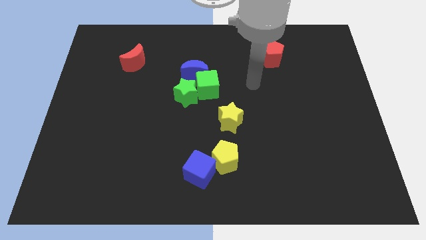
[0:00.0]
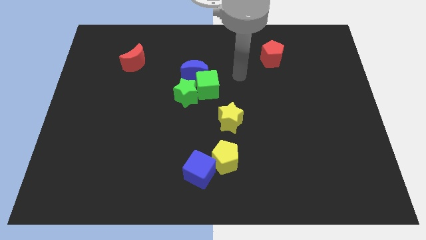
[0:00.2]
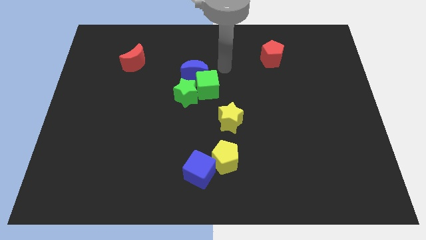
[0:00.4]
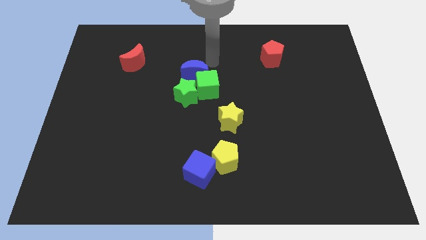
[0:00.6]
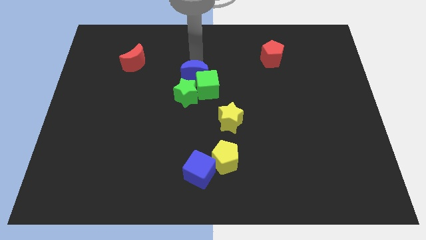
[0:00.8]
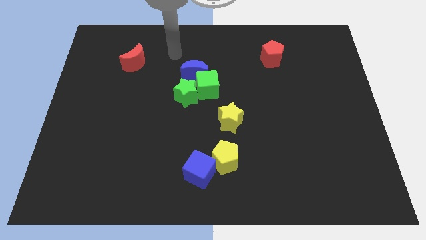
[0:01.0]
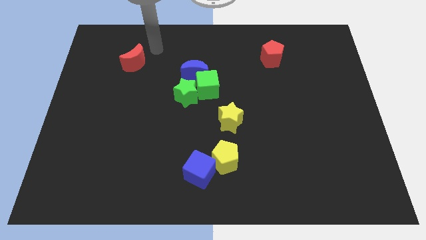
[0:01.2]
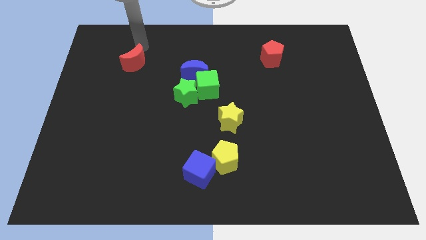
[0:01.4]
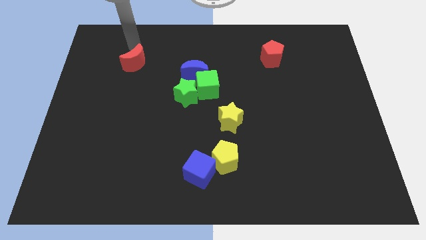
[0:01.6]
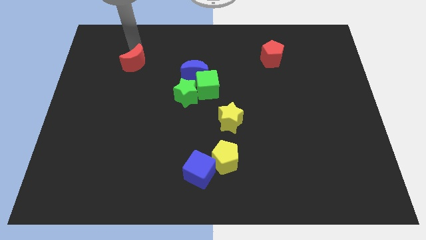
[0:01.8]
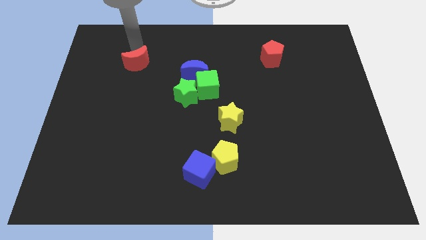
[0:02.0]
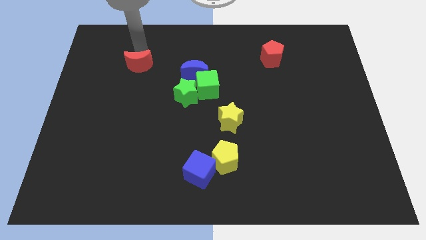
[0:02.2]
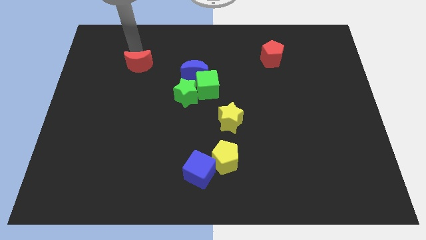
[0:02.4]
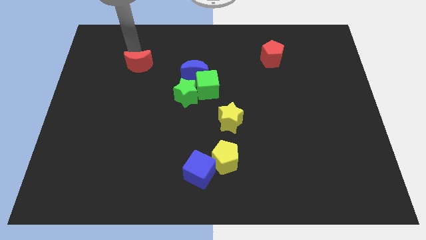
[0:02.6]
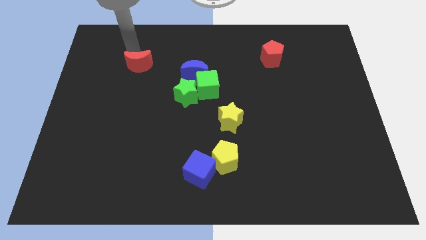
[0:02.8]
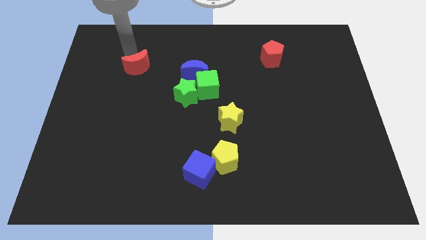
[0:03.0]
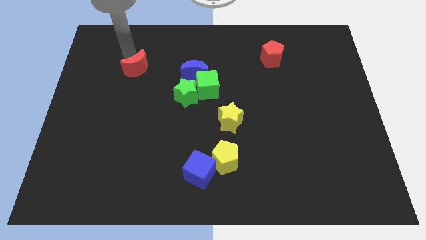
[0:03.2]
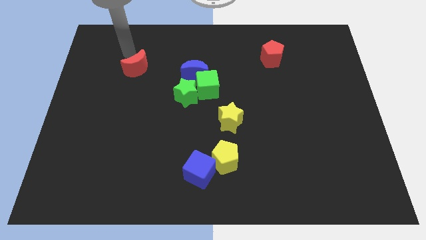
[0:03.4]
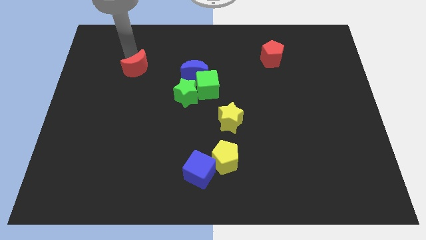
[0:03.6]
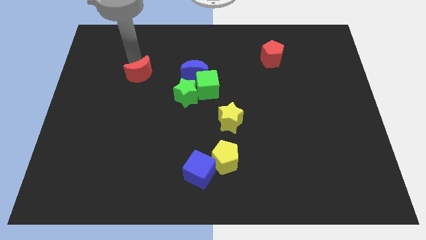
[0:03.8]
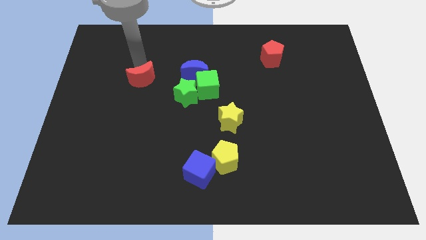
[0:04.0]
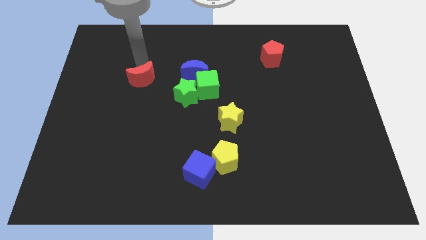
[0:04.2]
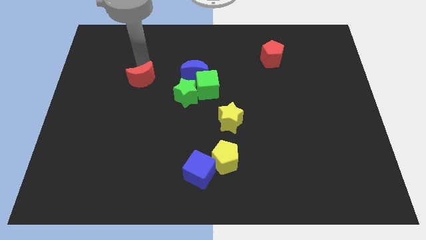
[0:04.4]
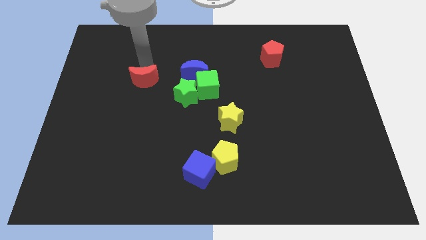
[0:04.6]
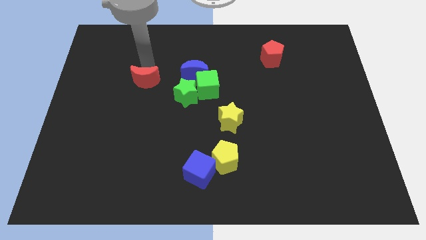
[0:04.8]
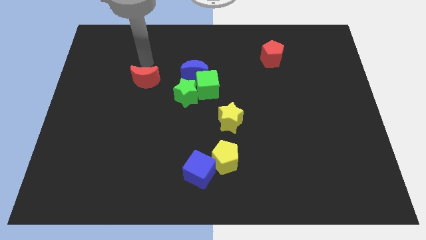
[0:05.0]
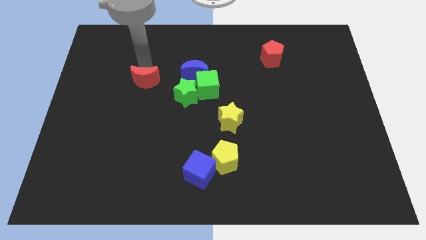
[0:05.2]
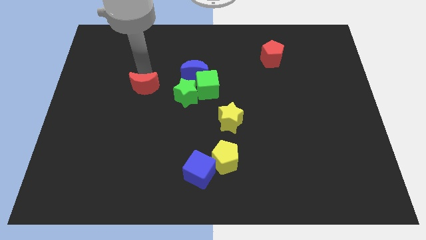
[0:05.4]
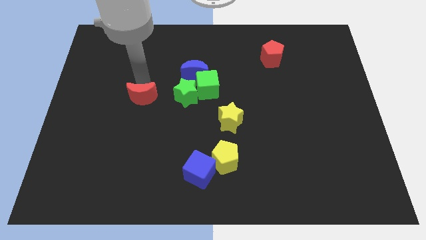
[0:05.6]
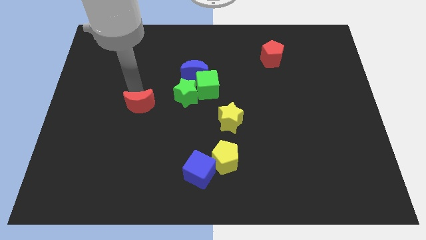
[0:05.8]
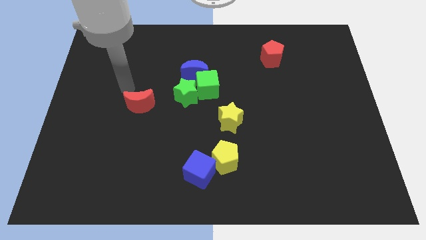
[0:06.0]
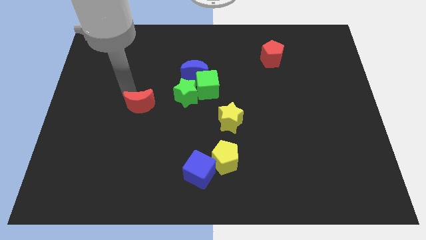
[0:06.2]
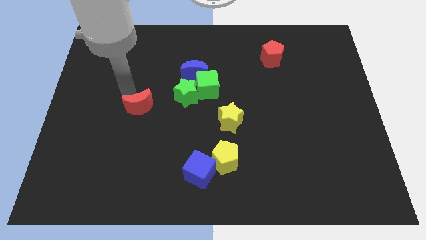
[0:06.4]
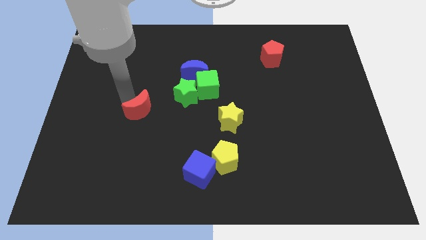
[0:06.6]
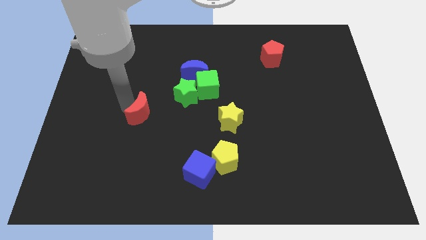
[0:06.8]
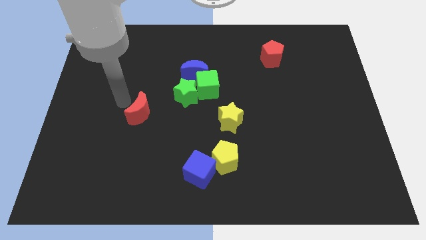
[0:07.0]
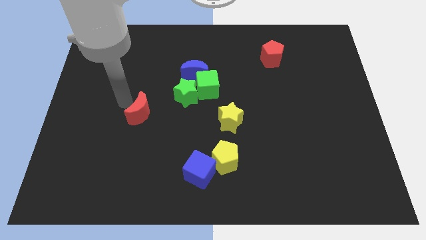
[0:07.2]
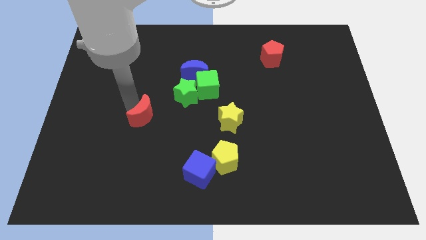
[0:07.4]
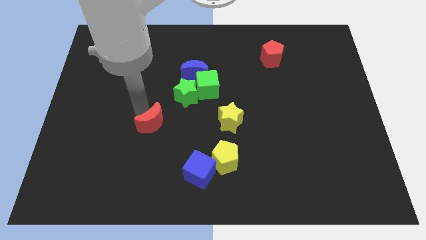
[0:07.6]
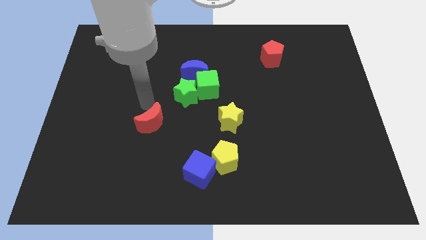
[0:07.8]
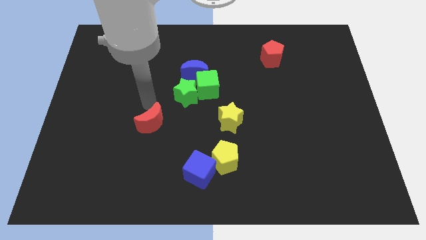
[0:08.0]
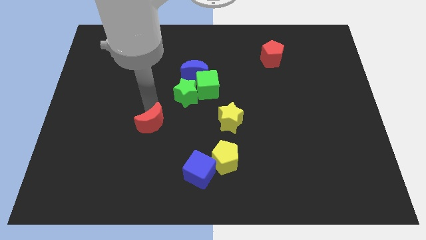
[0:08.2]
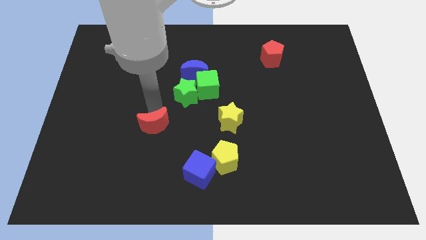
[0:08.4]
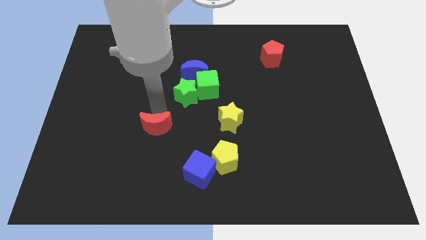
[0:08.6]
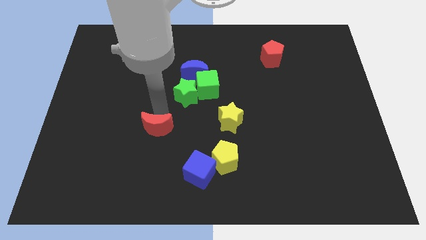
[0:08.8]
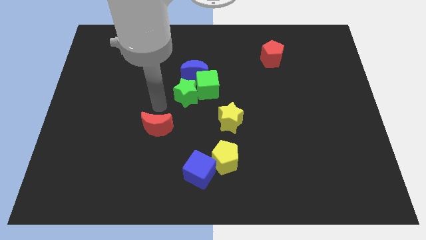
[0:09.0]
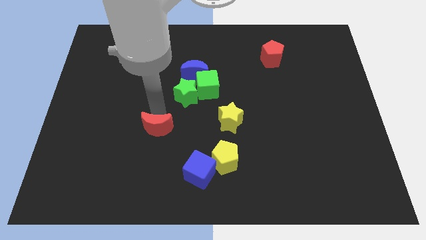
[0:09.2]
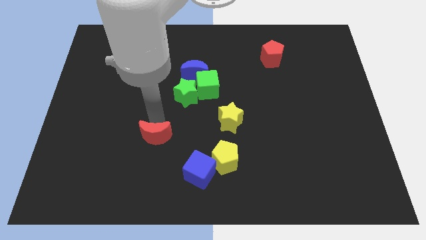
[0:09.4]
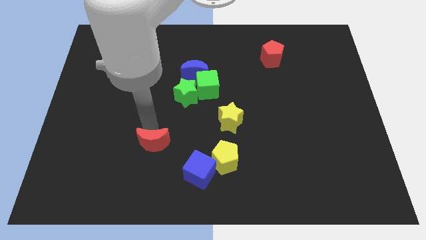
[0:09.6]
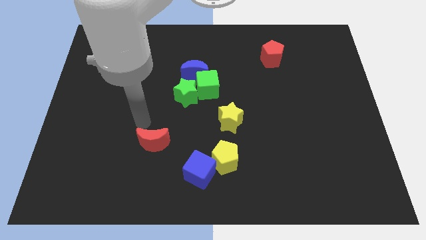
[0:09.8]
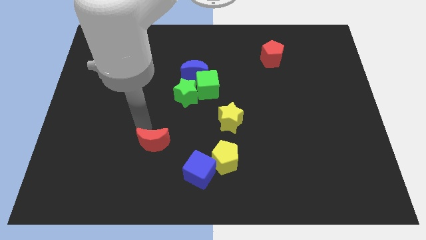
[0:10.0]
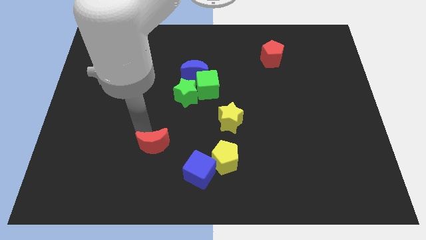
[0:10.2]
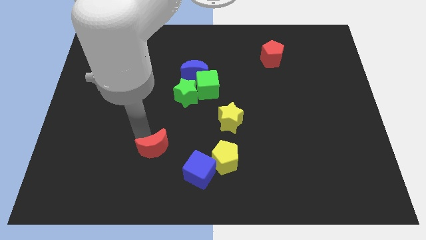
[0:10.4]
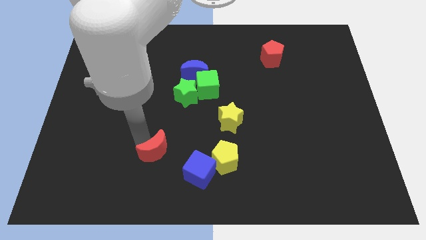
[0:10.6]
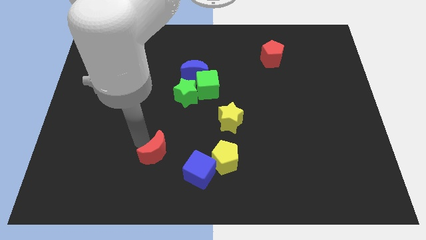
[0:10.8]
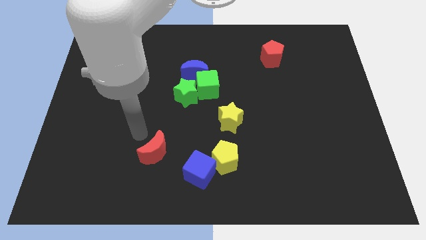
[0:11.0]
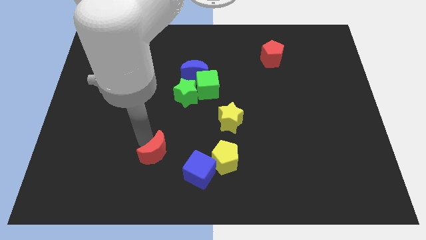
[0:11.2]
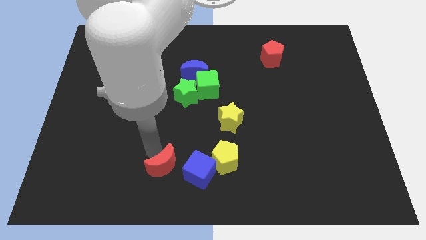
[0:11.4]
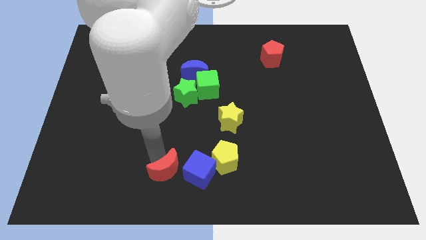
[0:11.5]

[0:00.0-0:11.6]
move the red moon to the bottom side

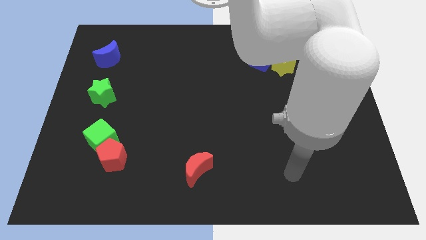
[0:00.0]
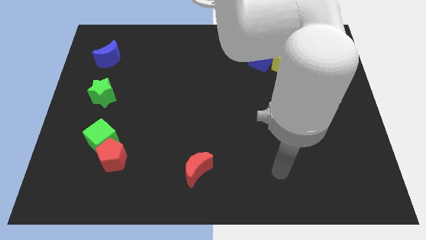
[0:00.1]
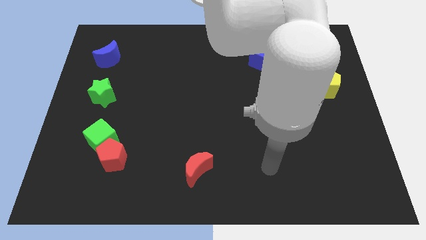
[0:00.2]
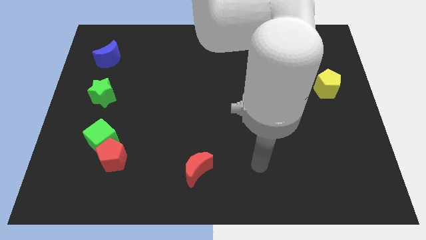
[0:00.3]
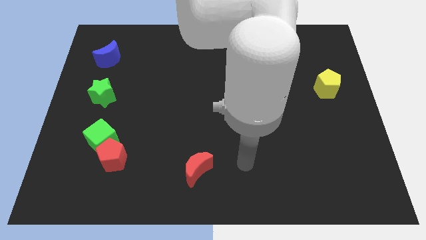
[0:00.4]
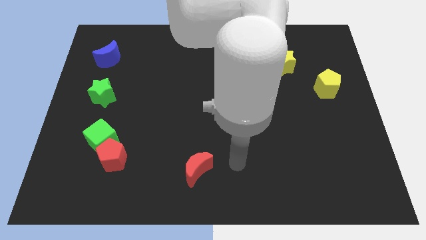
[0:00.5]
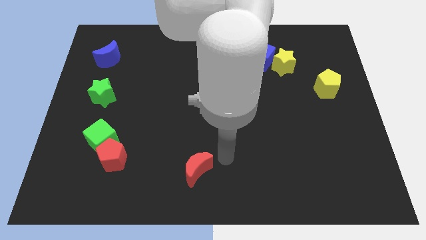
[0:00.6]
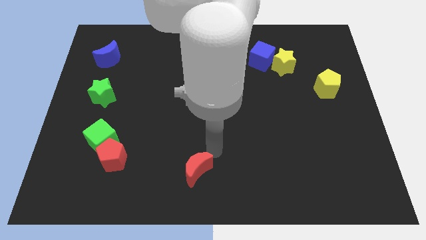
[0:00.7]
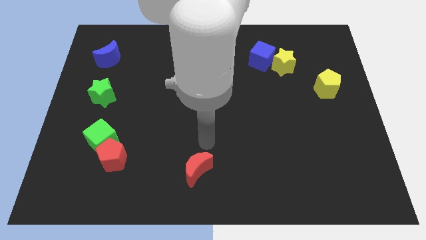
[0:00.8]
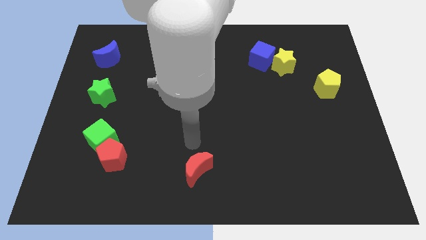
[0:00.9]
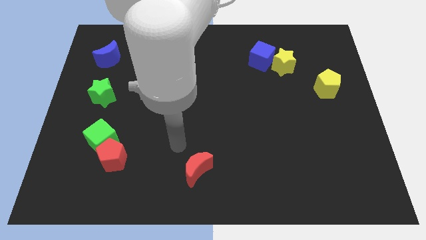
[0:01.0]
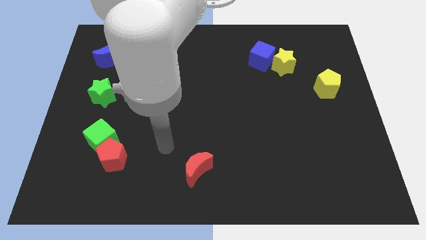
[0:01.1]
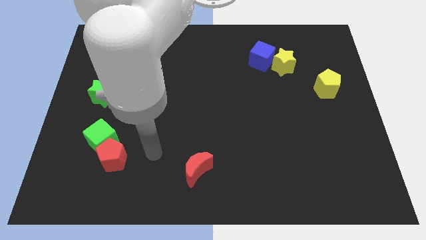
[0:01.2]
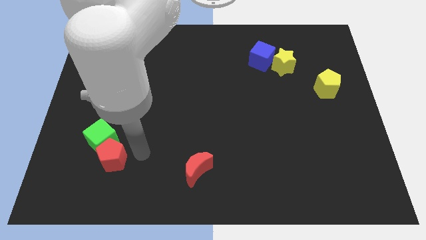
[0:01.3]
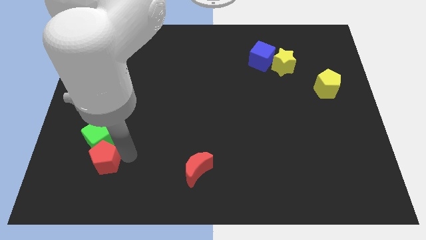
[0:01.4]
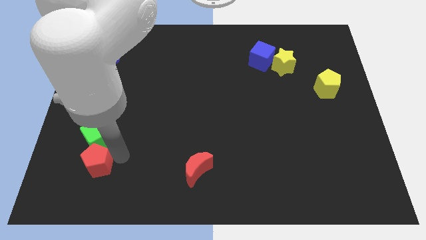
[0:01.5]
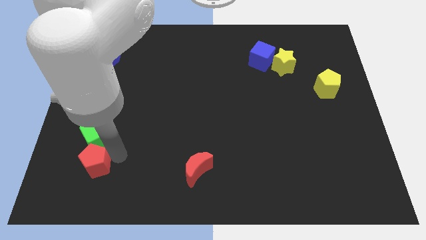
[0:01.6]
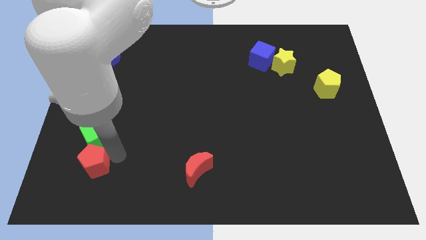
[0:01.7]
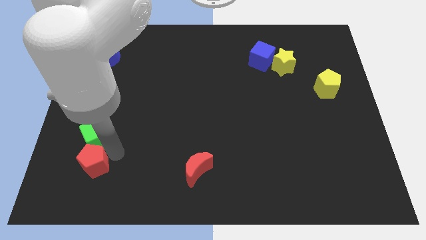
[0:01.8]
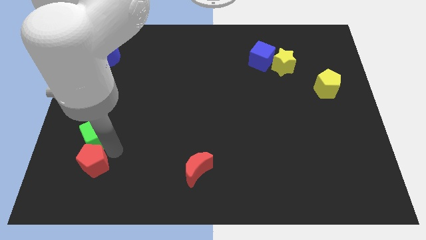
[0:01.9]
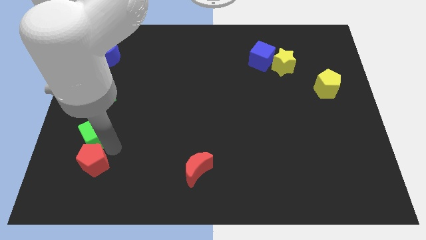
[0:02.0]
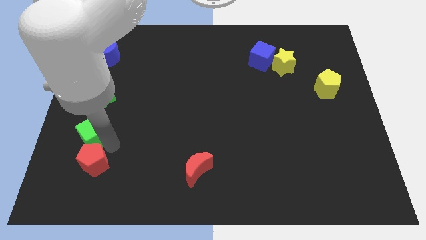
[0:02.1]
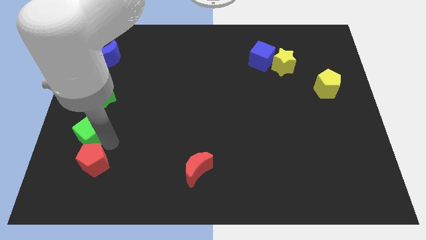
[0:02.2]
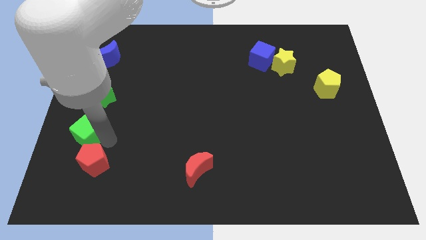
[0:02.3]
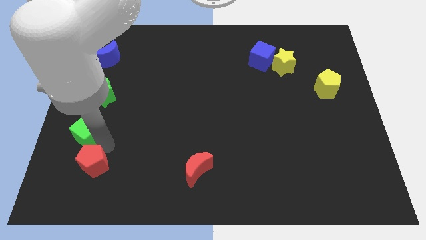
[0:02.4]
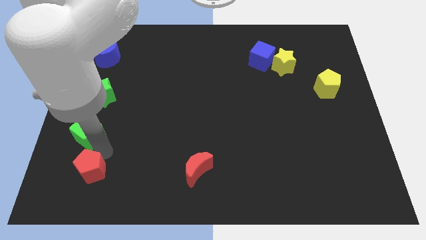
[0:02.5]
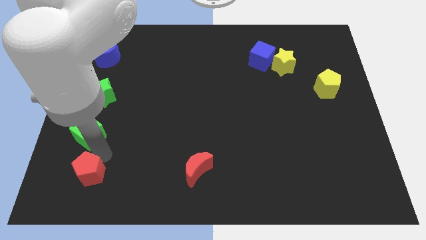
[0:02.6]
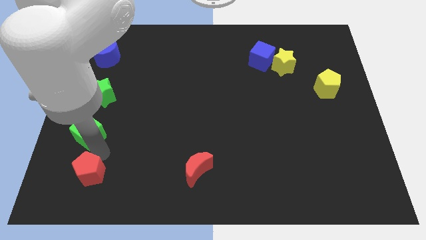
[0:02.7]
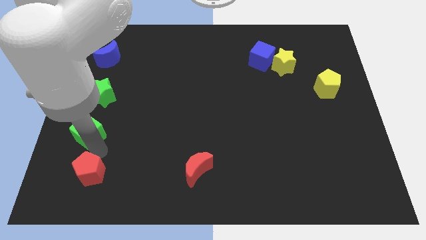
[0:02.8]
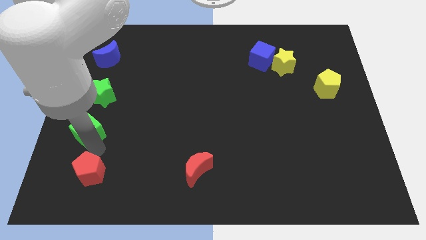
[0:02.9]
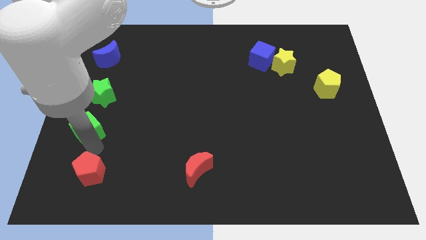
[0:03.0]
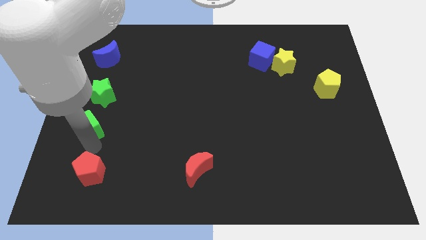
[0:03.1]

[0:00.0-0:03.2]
push the green cube to the left side
